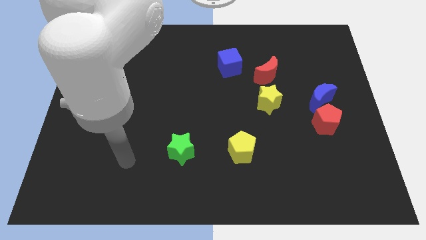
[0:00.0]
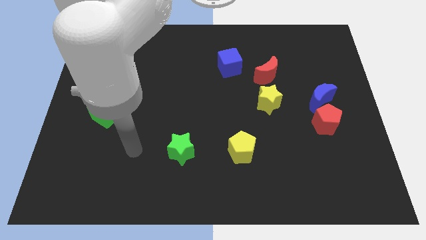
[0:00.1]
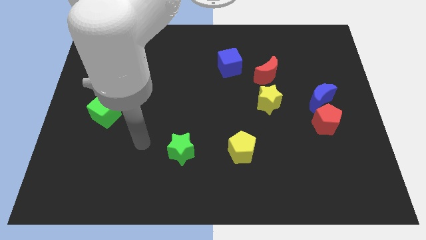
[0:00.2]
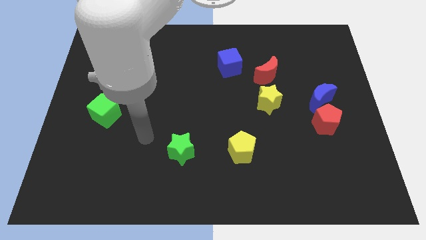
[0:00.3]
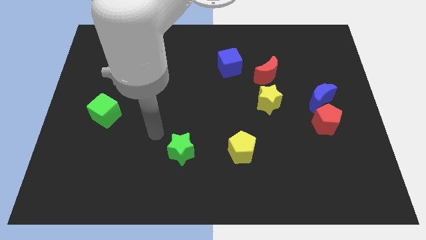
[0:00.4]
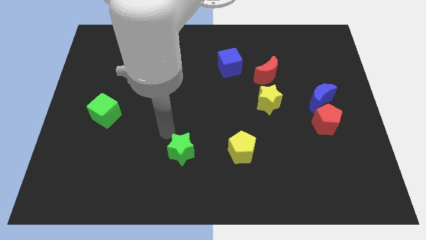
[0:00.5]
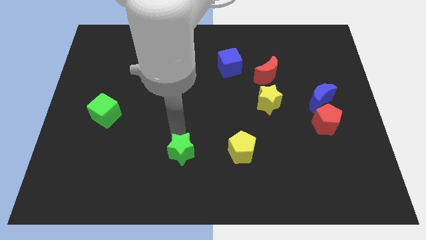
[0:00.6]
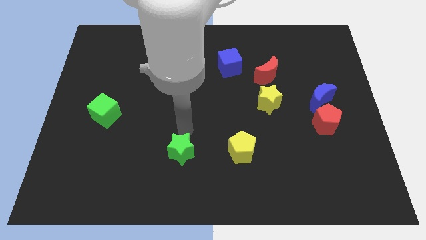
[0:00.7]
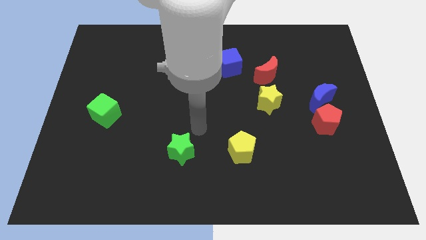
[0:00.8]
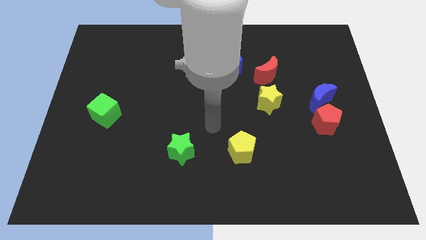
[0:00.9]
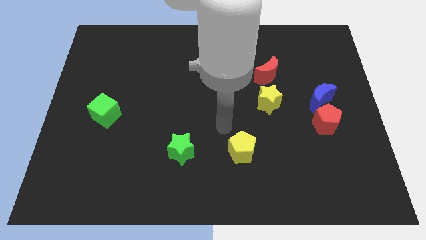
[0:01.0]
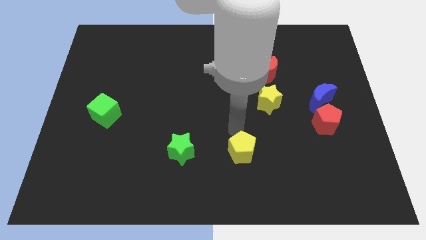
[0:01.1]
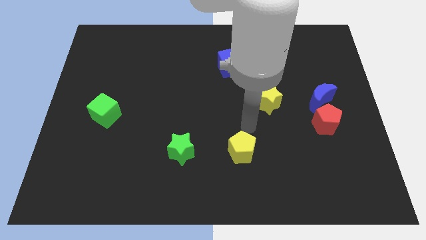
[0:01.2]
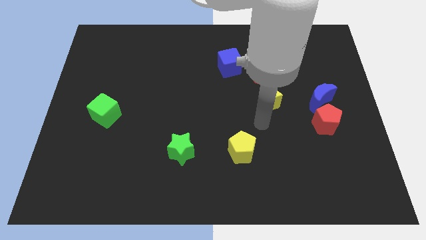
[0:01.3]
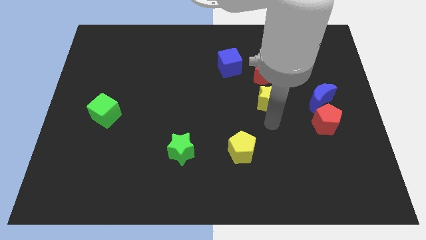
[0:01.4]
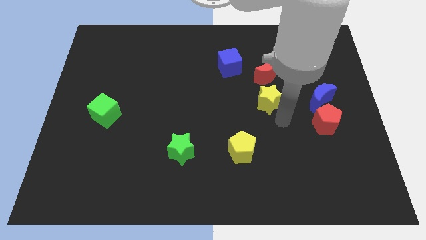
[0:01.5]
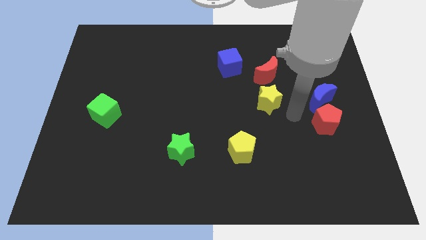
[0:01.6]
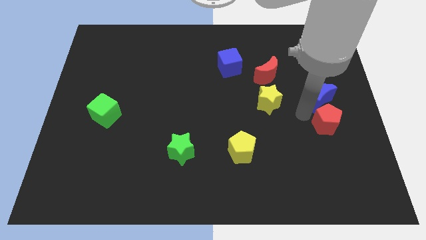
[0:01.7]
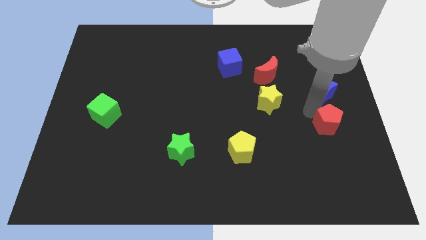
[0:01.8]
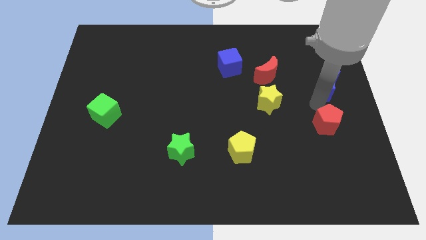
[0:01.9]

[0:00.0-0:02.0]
move the red pentagon away from the blue moon

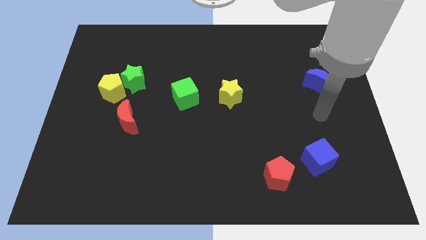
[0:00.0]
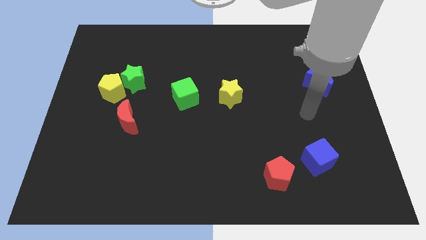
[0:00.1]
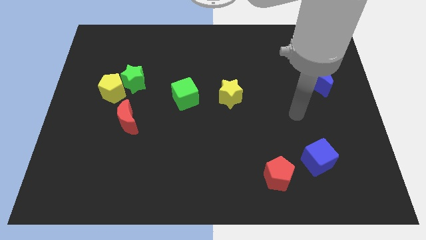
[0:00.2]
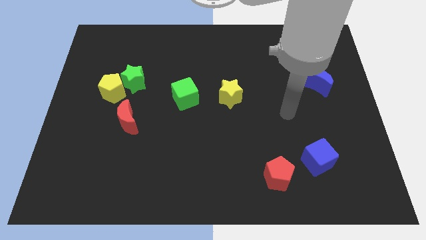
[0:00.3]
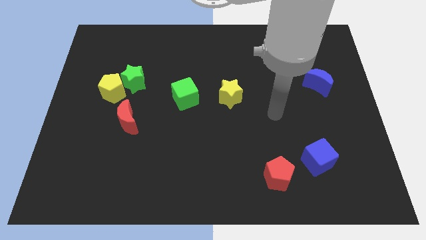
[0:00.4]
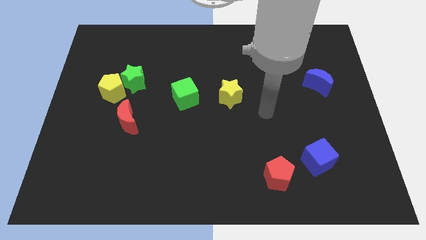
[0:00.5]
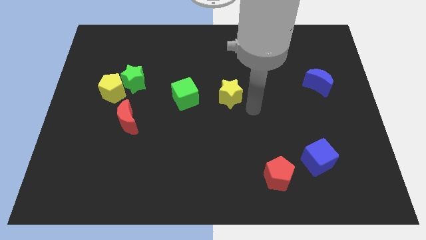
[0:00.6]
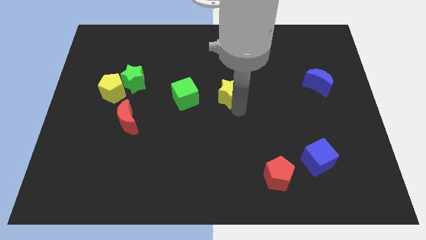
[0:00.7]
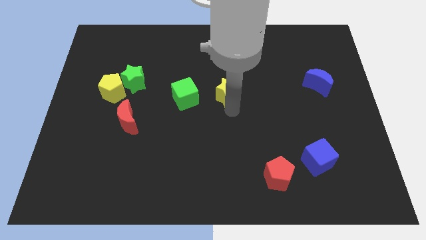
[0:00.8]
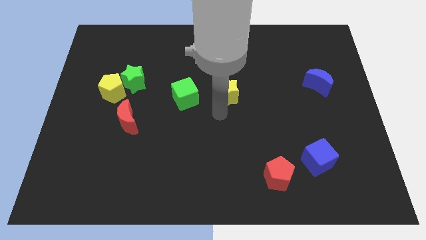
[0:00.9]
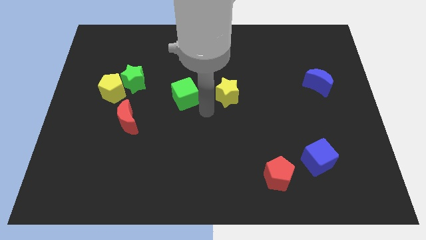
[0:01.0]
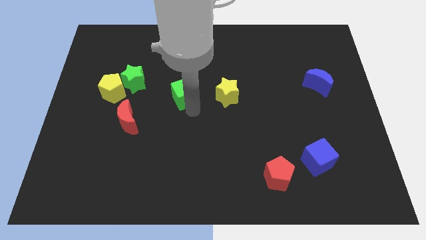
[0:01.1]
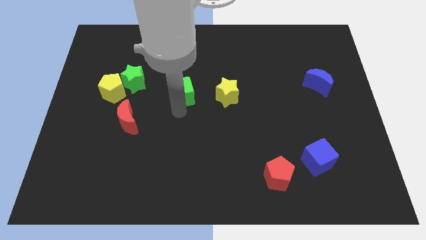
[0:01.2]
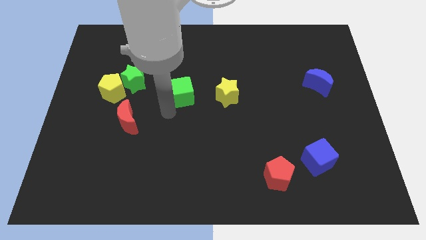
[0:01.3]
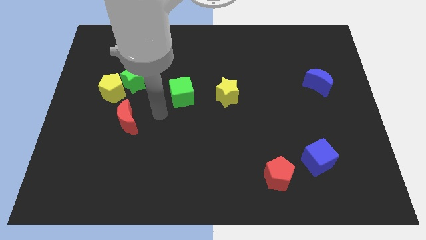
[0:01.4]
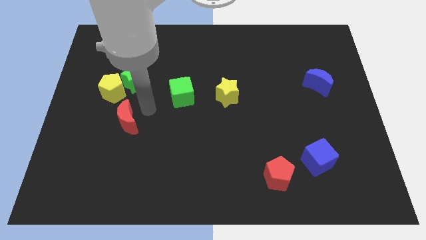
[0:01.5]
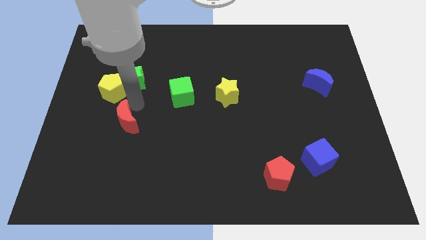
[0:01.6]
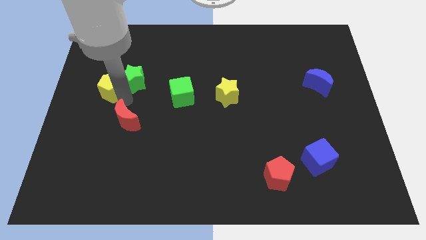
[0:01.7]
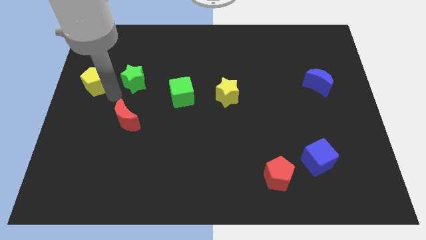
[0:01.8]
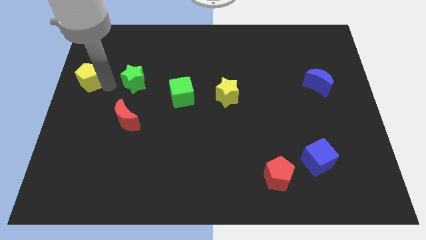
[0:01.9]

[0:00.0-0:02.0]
pull the green star apart from the yellow pentagon

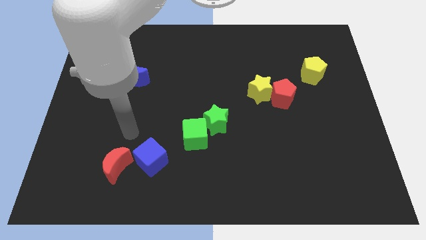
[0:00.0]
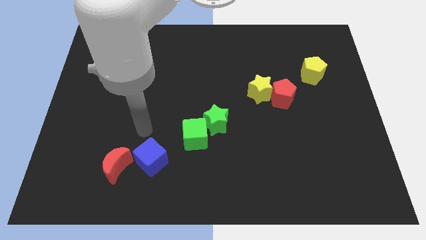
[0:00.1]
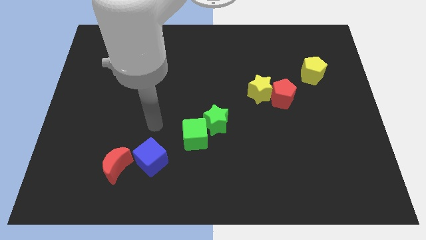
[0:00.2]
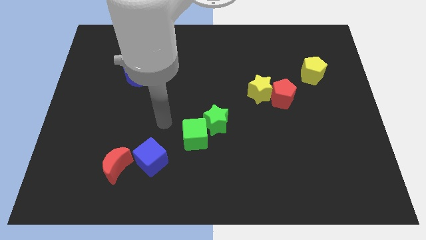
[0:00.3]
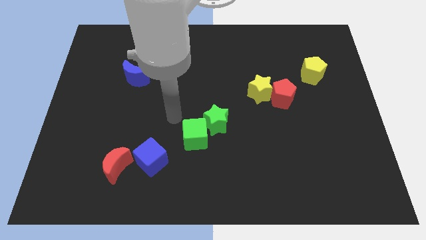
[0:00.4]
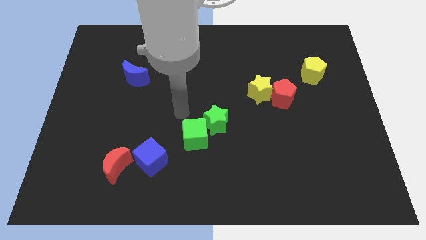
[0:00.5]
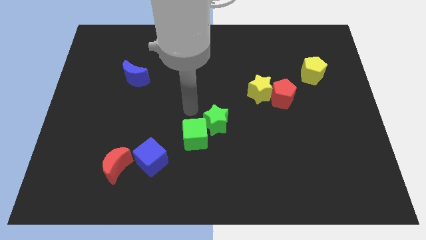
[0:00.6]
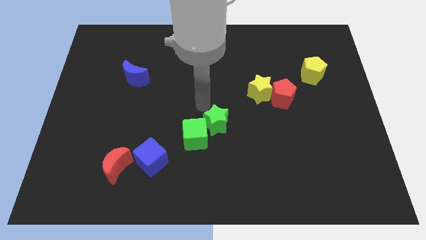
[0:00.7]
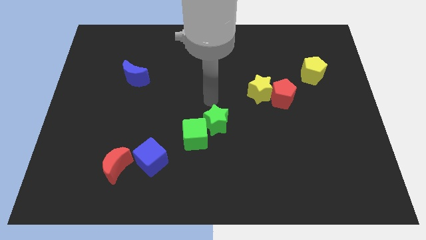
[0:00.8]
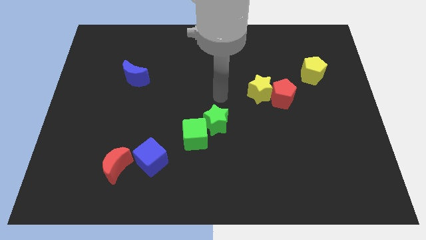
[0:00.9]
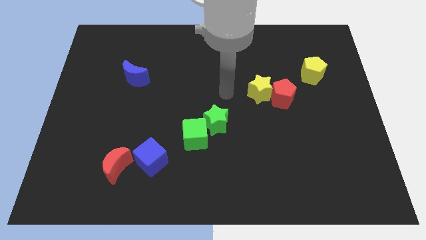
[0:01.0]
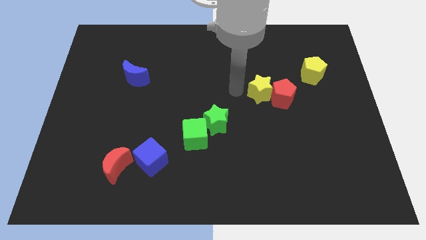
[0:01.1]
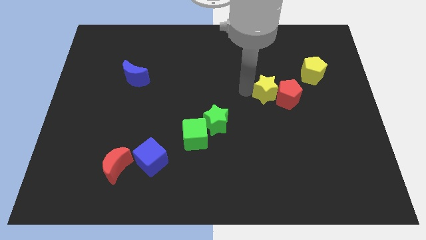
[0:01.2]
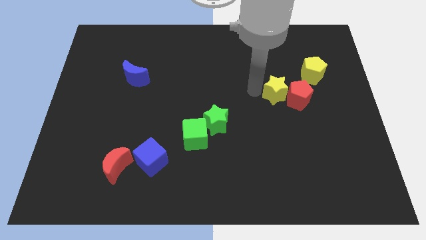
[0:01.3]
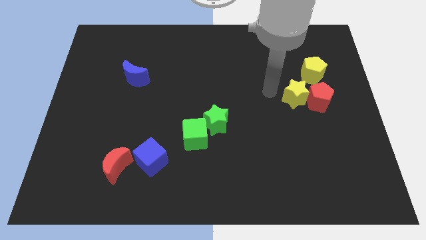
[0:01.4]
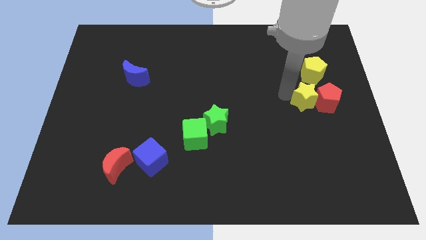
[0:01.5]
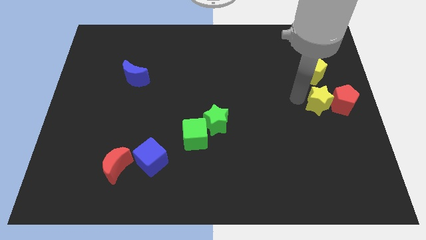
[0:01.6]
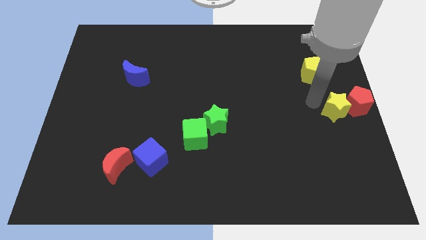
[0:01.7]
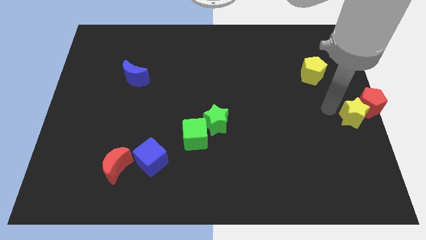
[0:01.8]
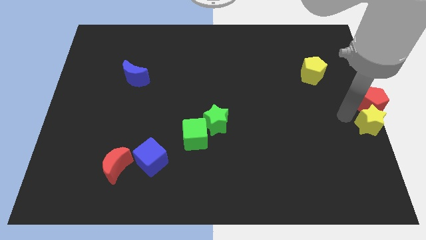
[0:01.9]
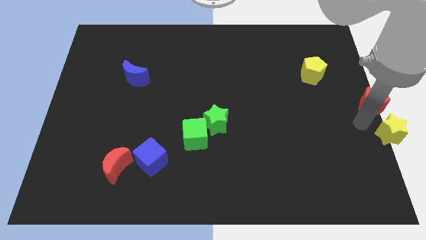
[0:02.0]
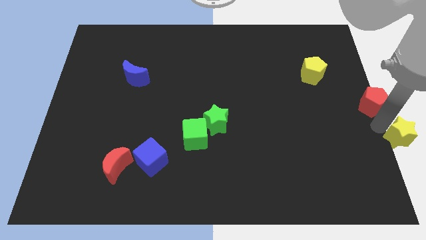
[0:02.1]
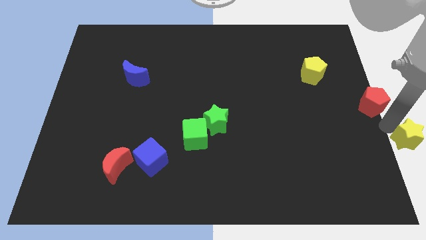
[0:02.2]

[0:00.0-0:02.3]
separate the red pentagon from the yellow star

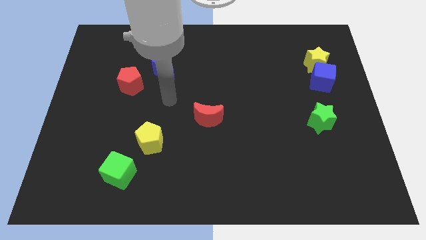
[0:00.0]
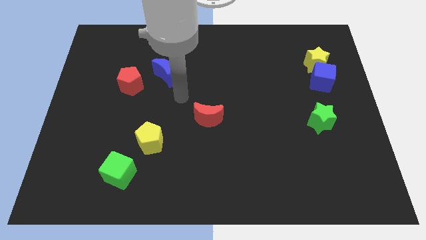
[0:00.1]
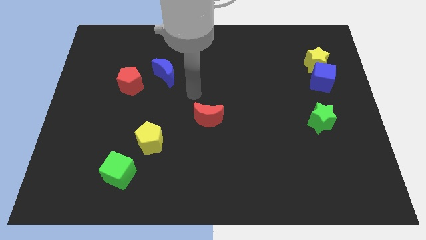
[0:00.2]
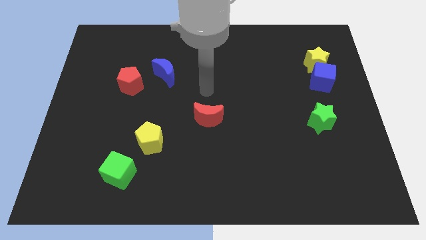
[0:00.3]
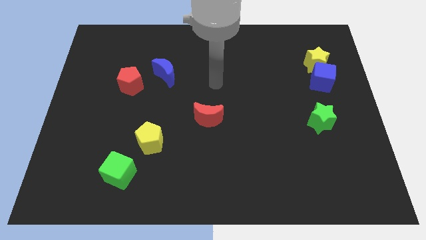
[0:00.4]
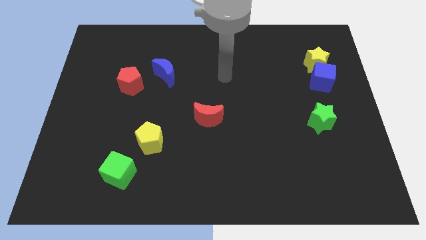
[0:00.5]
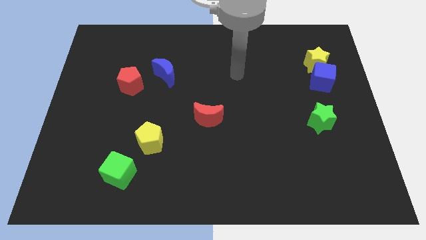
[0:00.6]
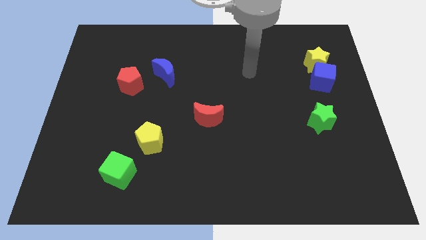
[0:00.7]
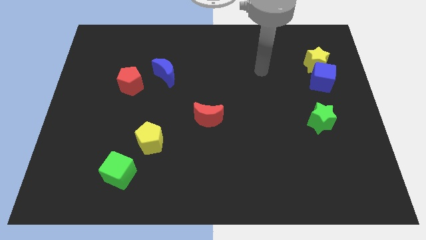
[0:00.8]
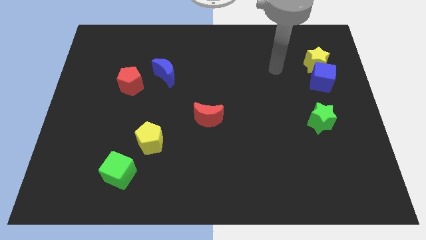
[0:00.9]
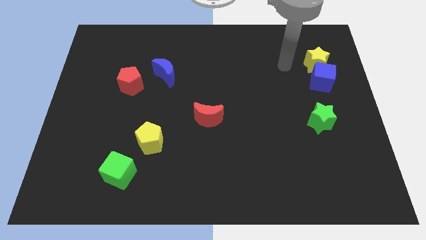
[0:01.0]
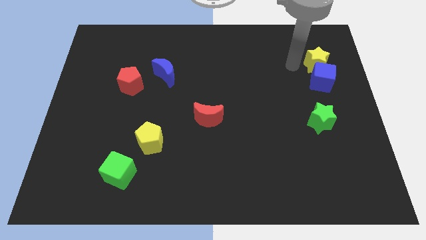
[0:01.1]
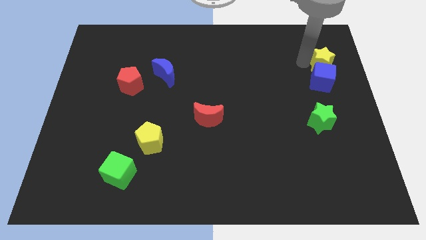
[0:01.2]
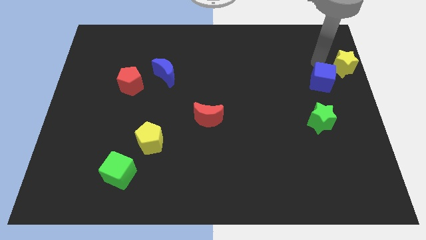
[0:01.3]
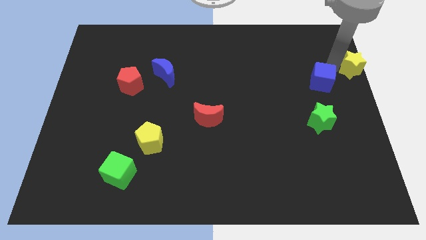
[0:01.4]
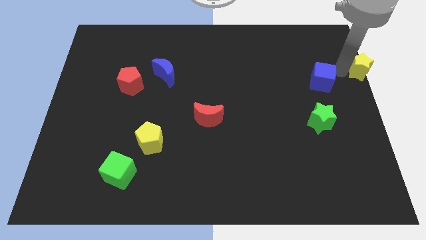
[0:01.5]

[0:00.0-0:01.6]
move the blue cube away from the yellow star

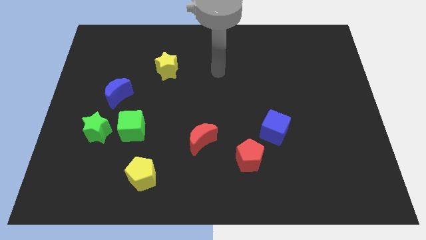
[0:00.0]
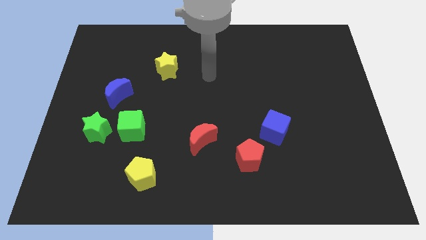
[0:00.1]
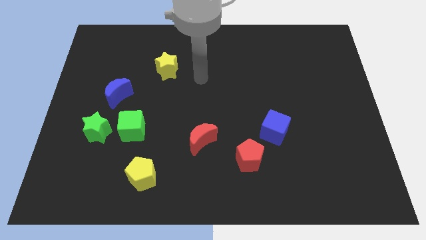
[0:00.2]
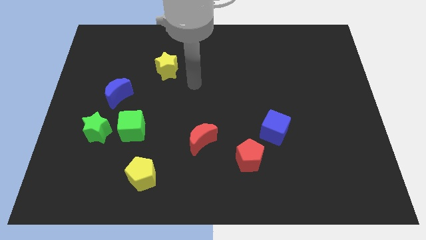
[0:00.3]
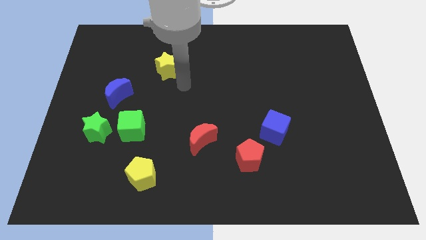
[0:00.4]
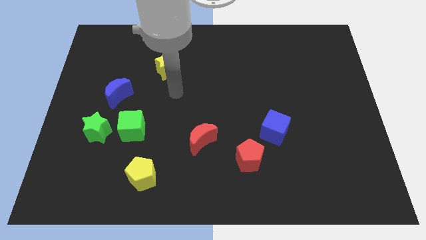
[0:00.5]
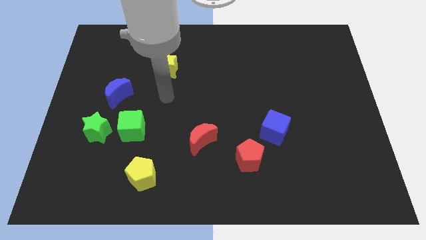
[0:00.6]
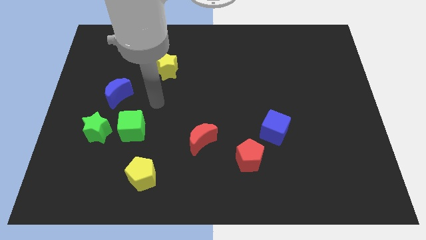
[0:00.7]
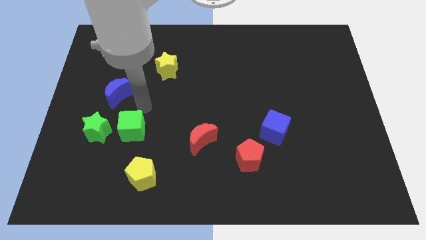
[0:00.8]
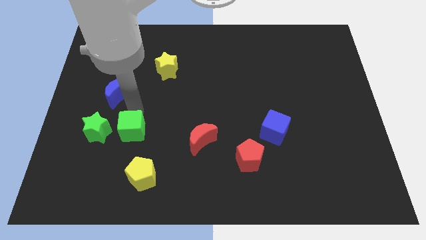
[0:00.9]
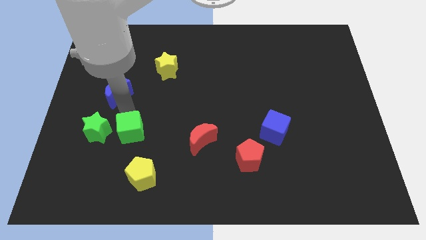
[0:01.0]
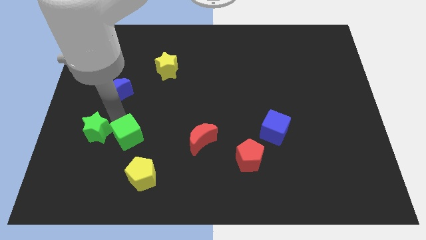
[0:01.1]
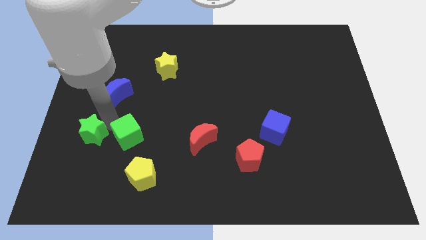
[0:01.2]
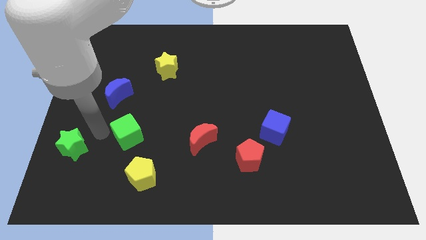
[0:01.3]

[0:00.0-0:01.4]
pull the green cube apart from the green star
